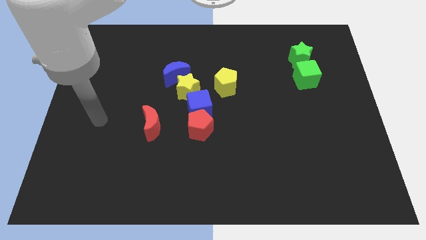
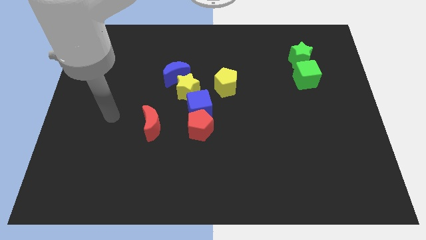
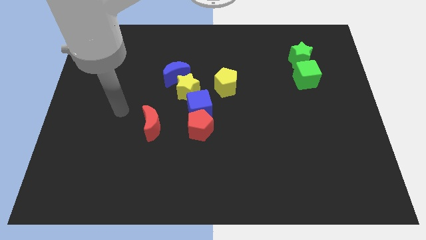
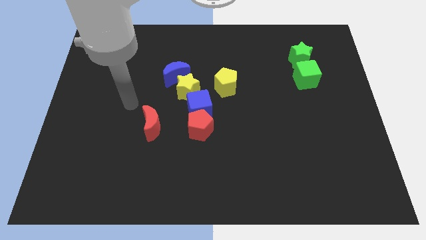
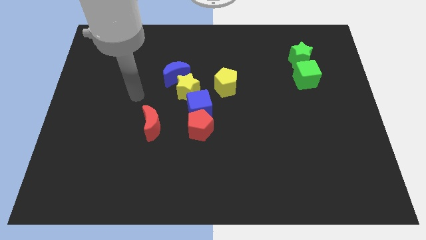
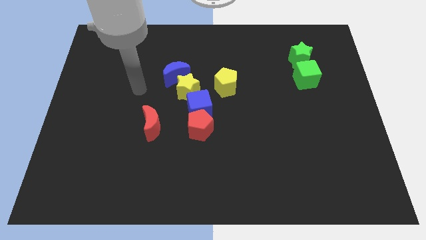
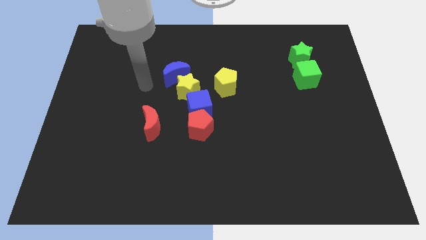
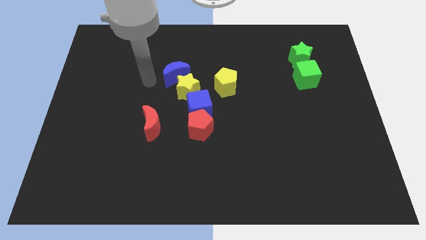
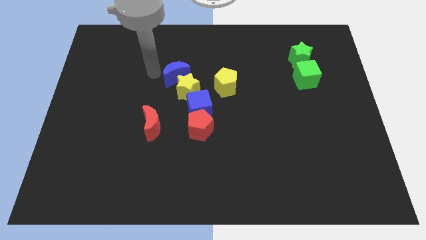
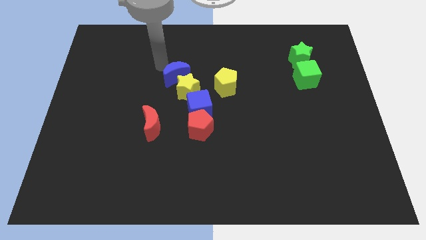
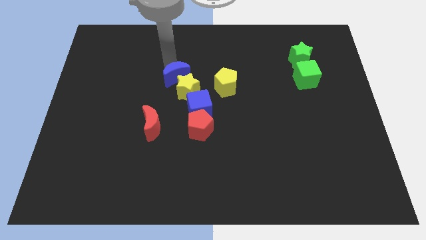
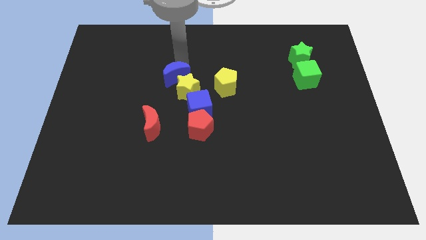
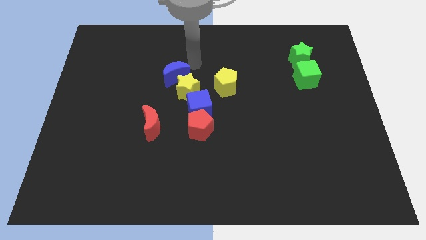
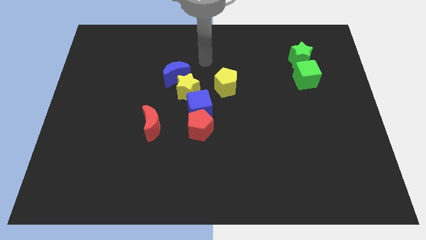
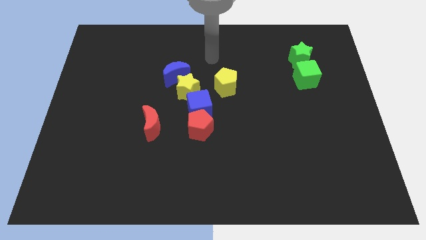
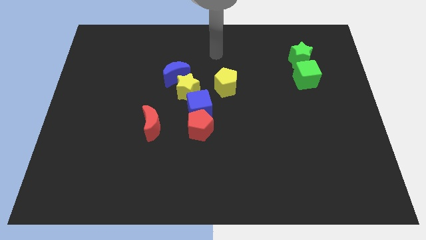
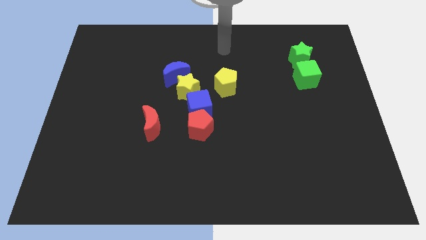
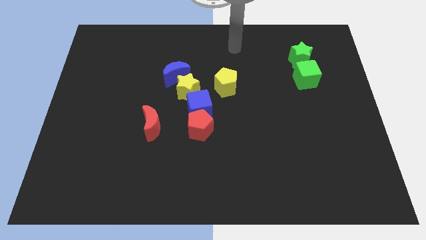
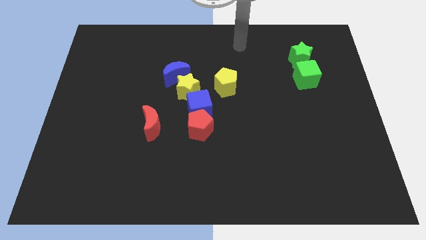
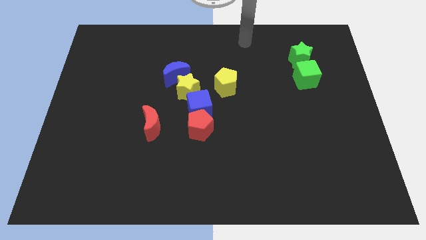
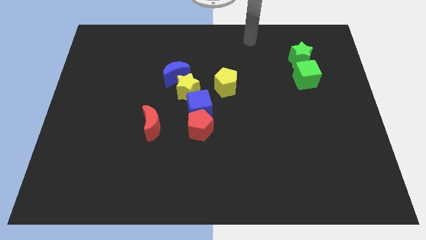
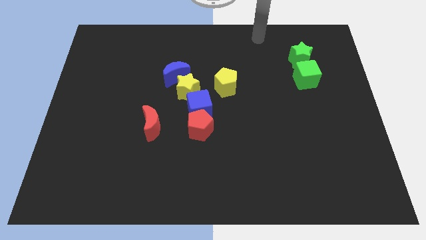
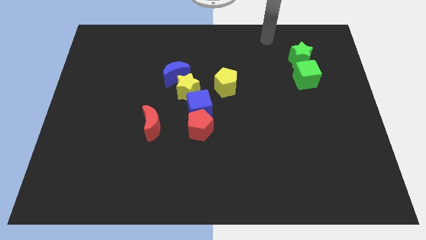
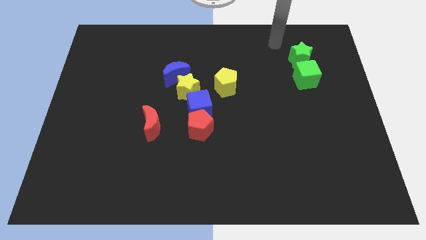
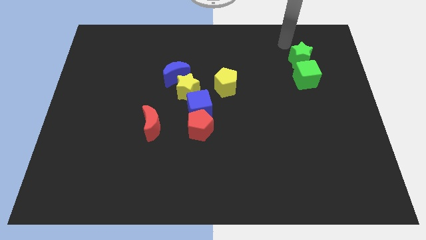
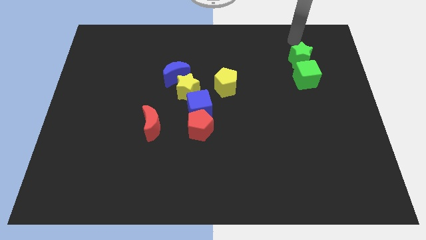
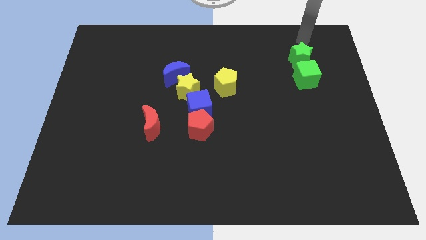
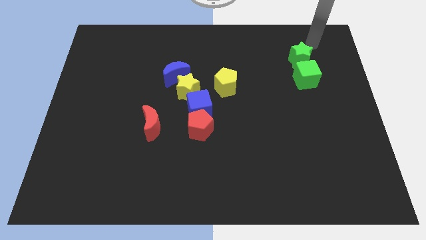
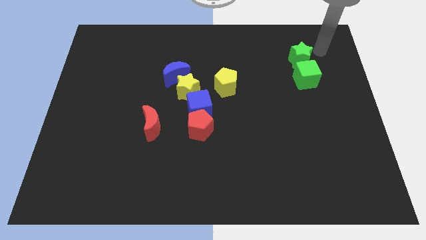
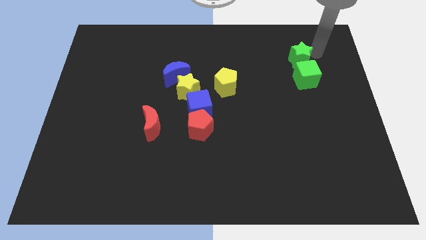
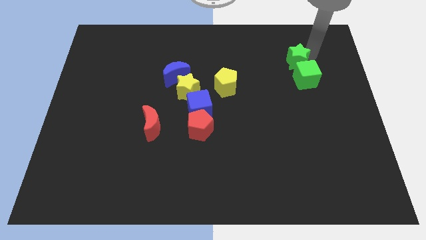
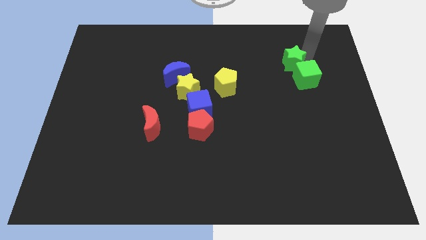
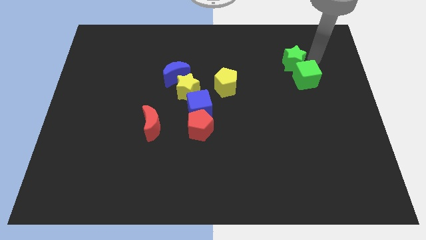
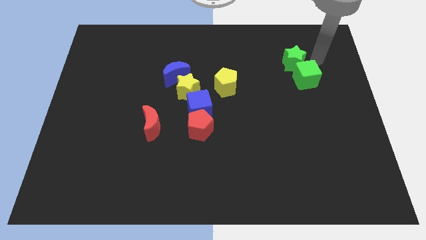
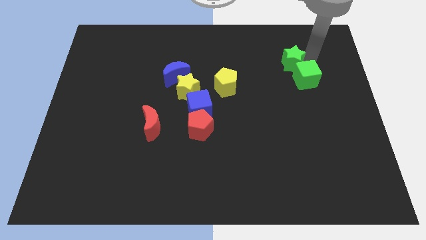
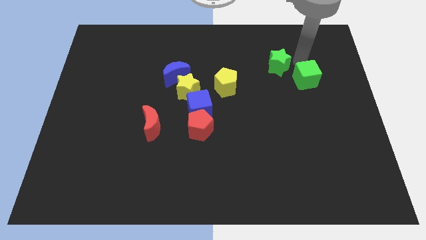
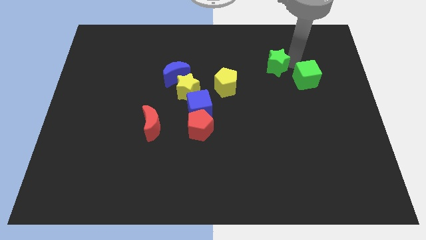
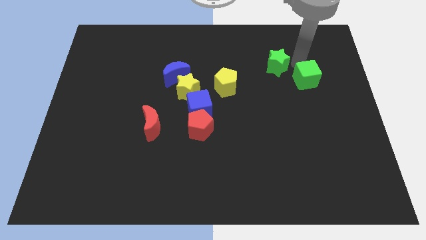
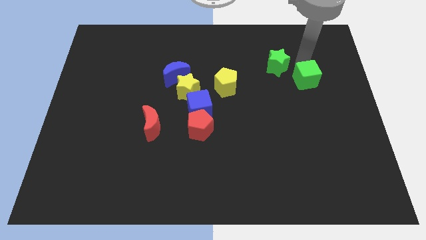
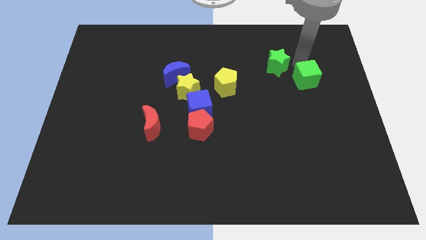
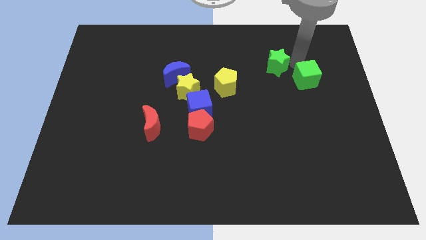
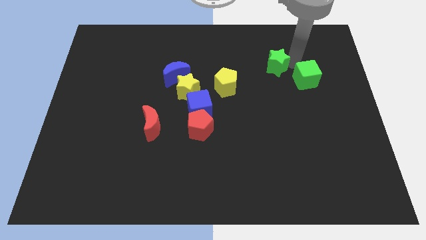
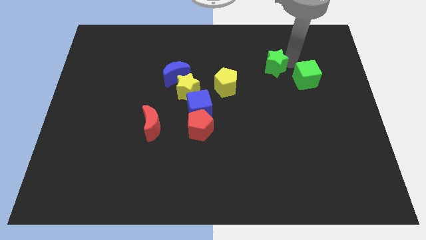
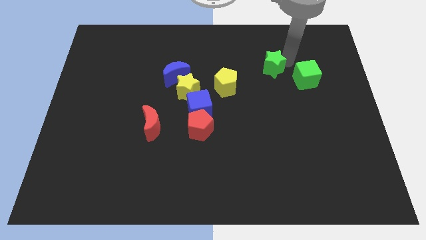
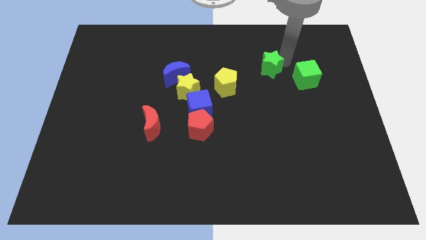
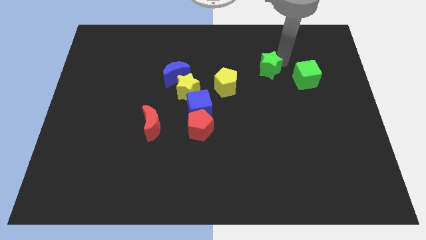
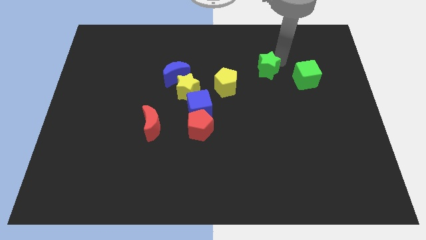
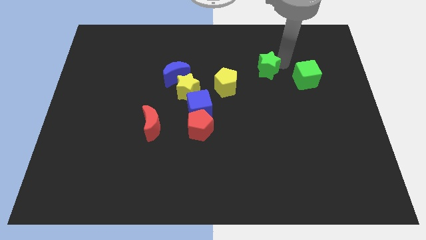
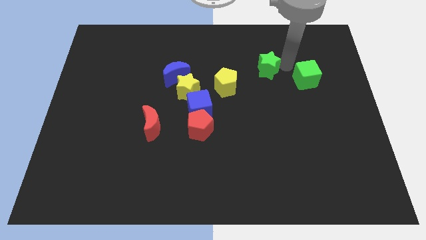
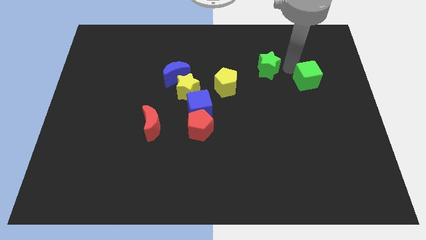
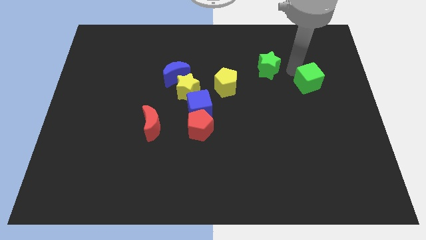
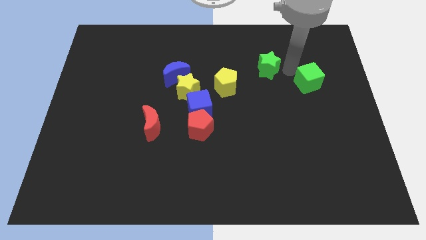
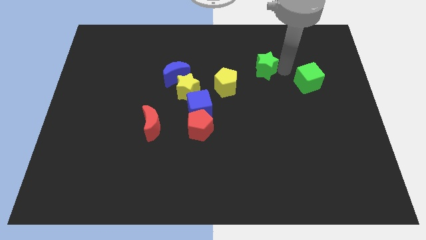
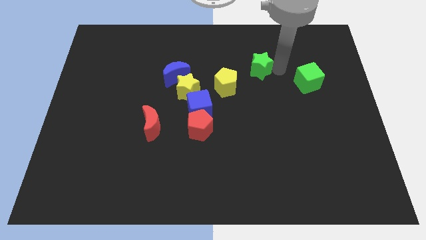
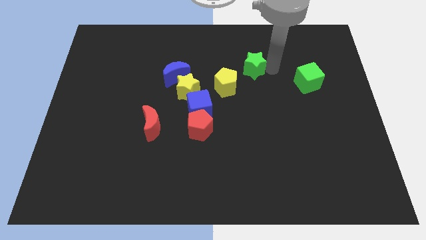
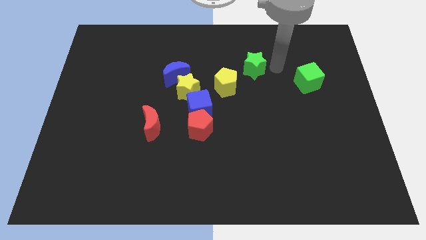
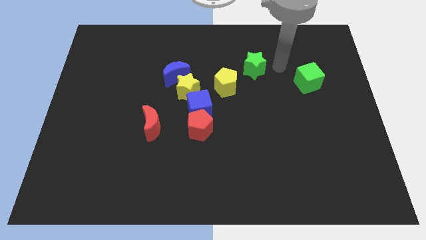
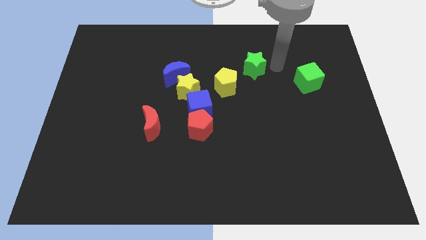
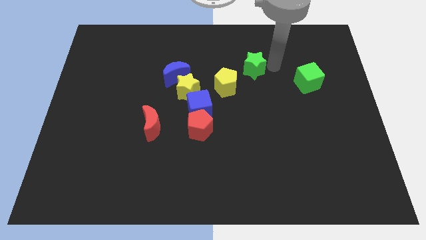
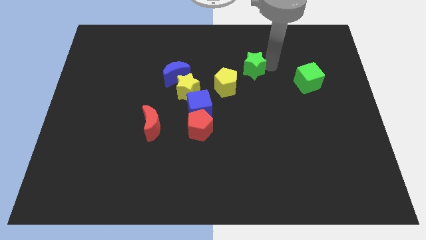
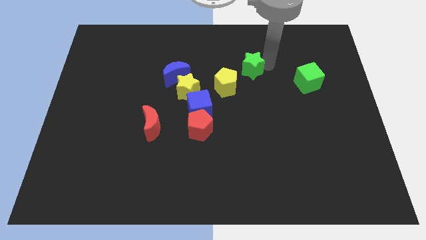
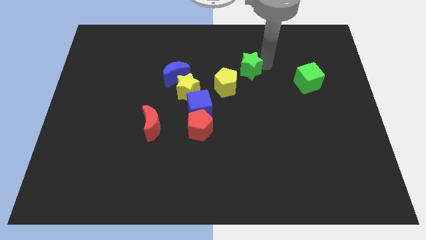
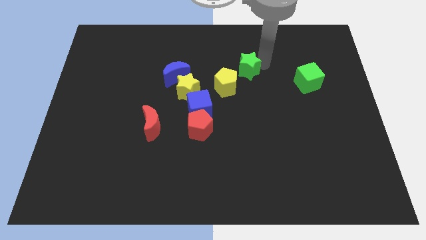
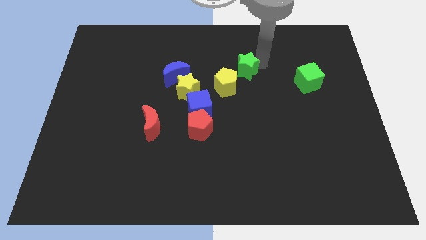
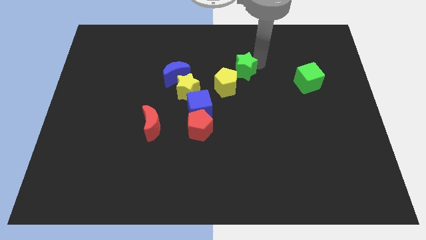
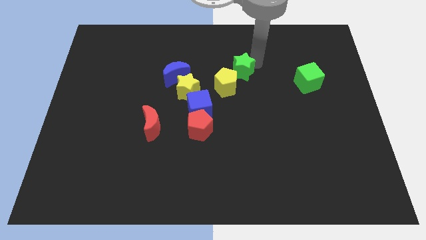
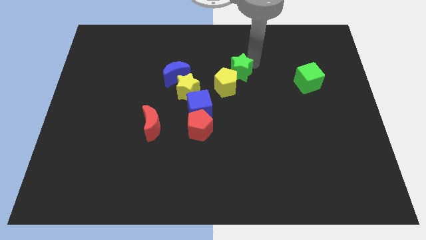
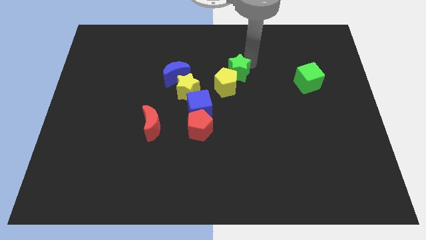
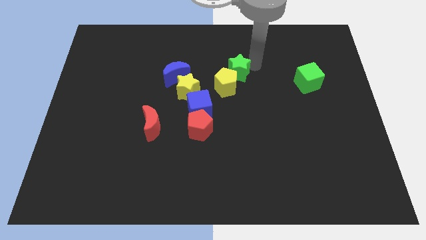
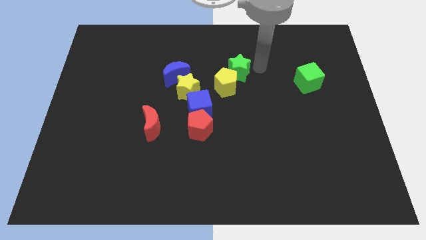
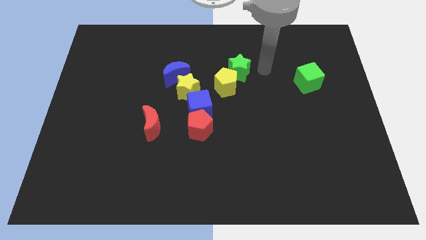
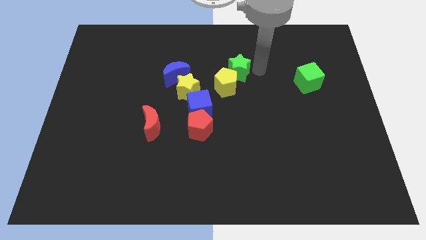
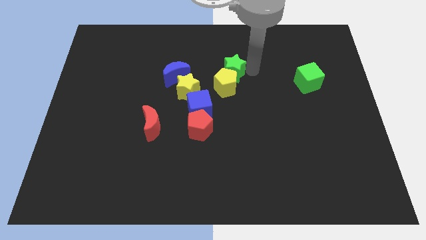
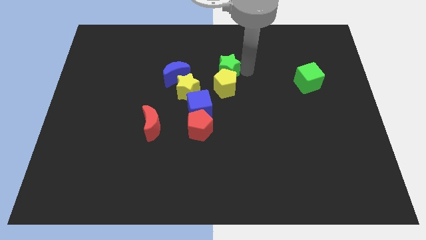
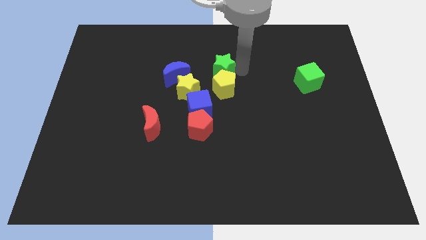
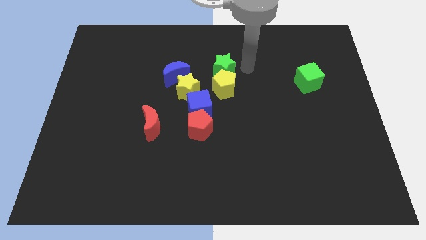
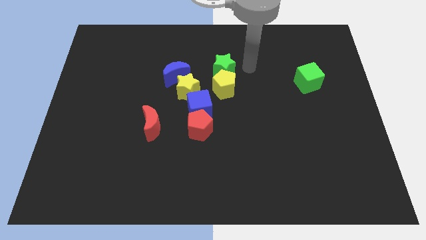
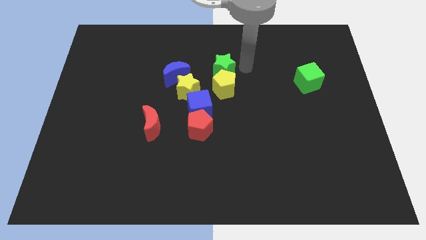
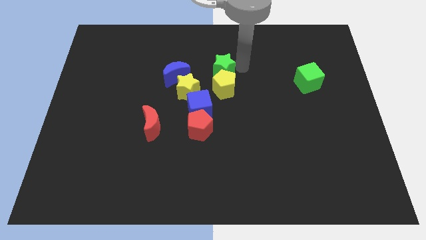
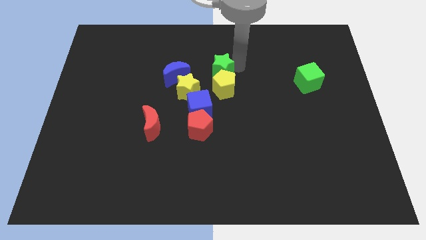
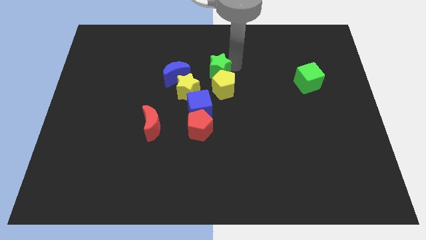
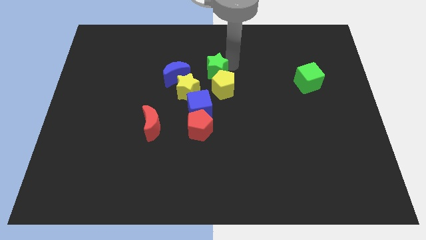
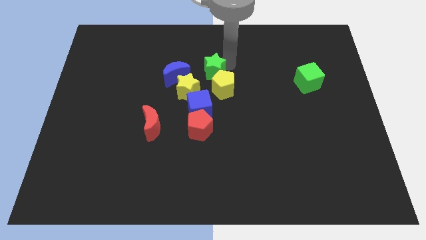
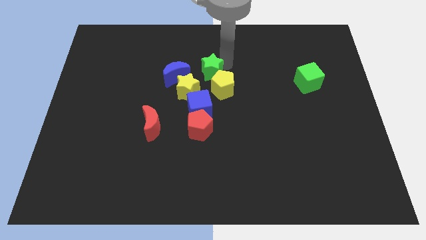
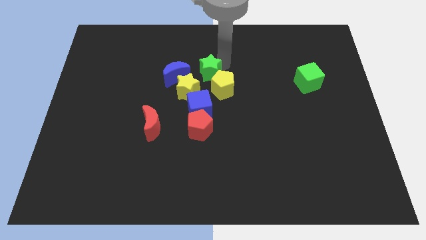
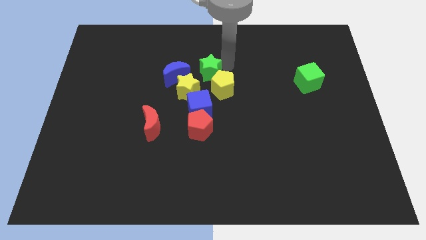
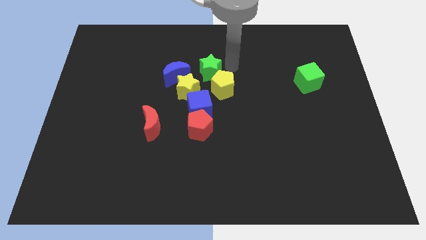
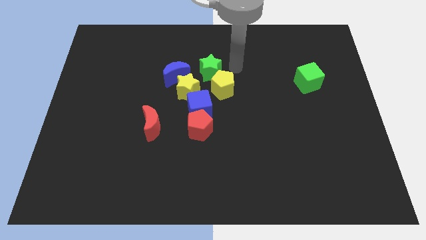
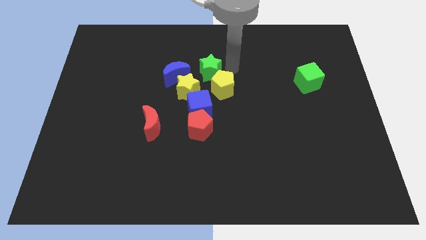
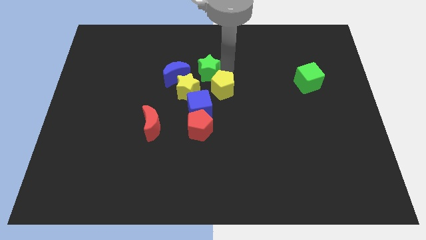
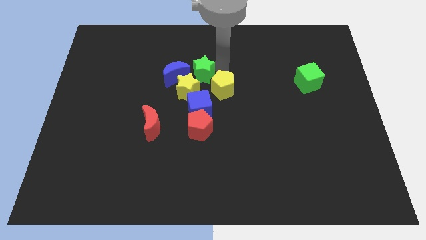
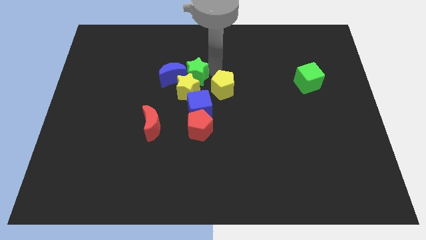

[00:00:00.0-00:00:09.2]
slide the green star towards the blue moon
